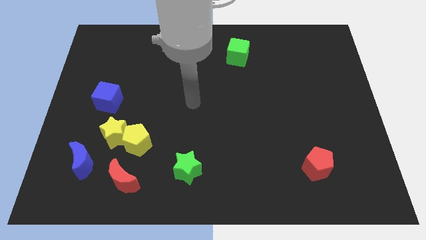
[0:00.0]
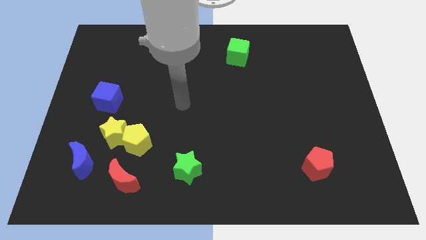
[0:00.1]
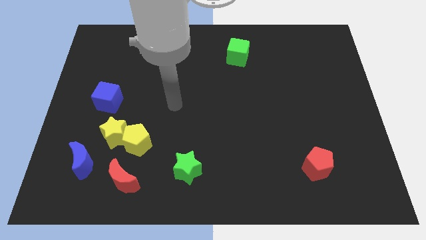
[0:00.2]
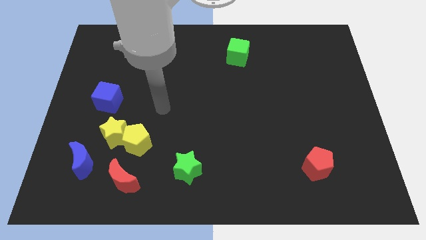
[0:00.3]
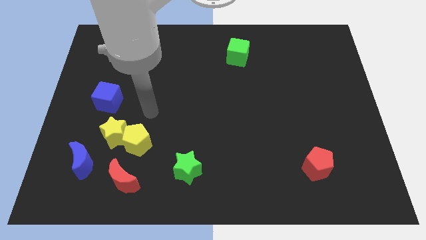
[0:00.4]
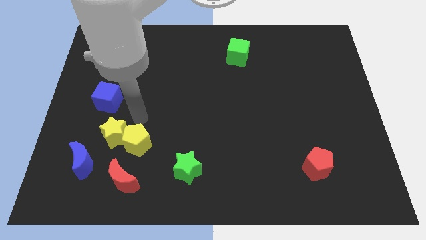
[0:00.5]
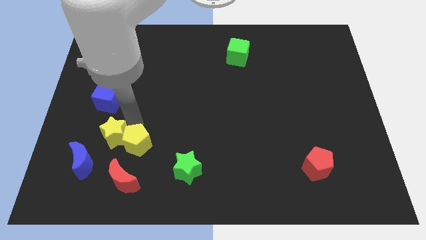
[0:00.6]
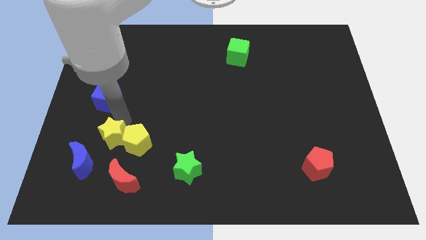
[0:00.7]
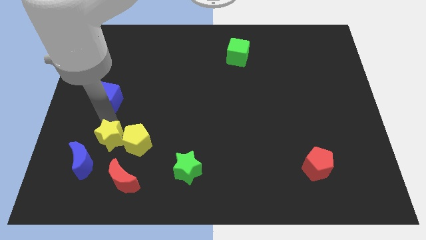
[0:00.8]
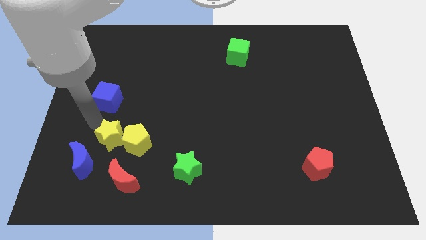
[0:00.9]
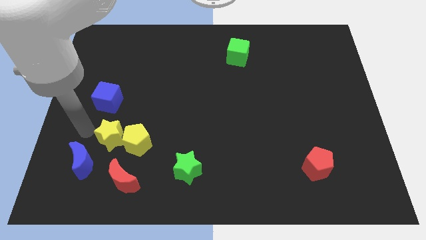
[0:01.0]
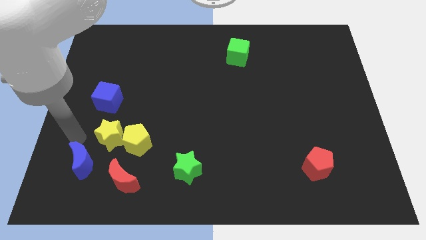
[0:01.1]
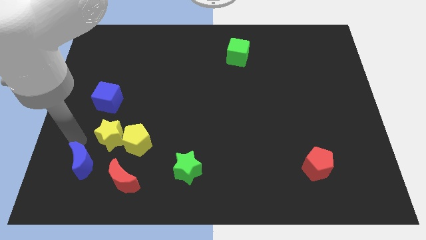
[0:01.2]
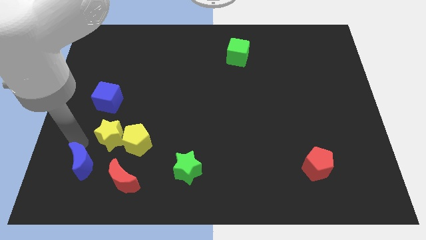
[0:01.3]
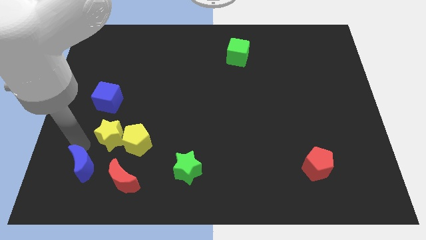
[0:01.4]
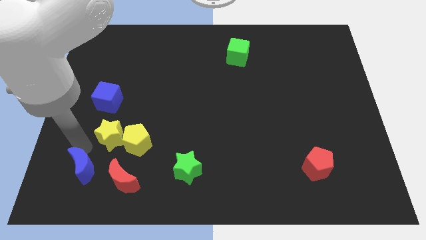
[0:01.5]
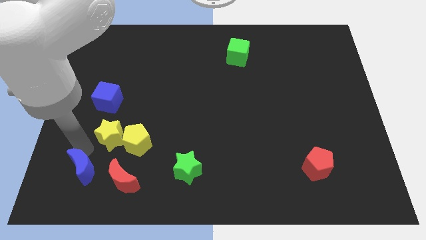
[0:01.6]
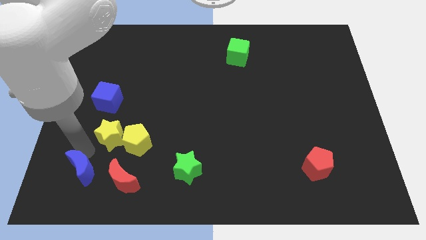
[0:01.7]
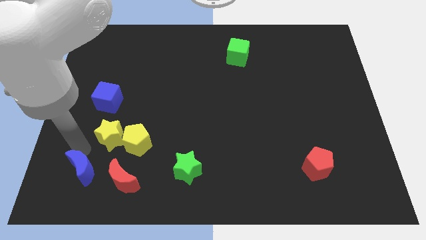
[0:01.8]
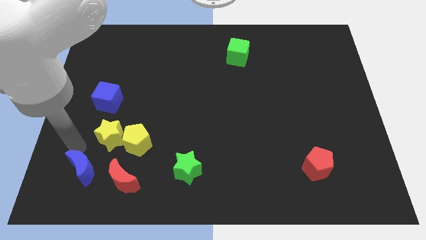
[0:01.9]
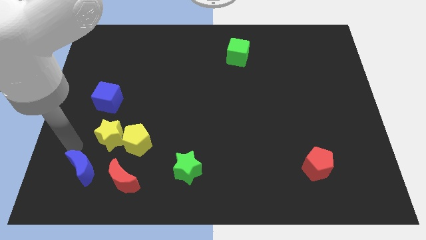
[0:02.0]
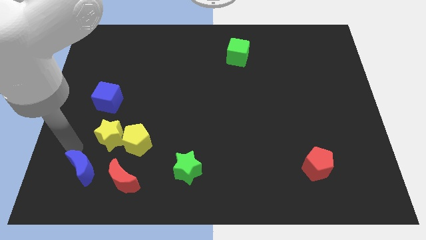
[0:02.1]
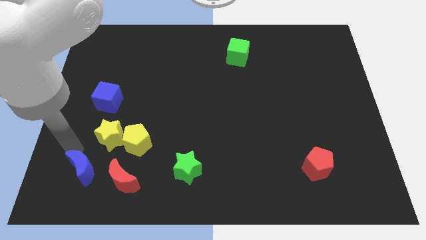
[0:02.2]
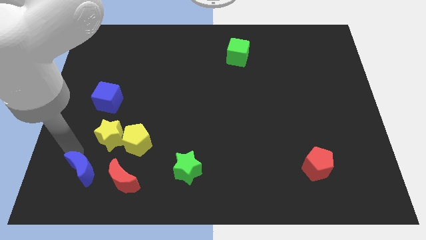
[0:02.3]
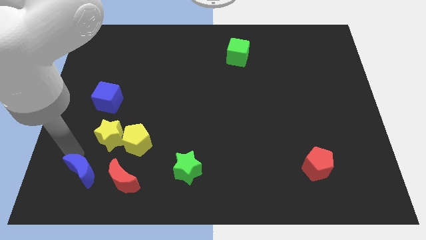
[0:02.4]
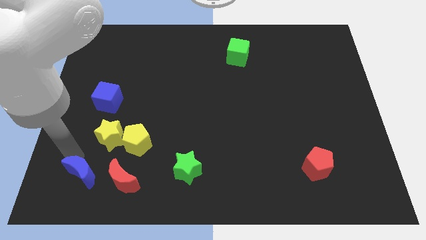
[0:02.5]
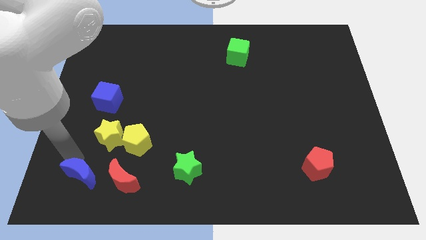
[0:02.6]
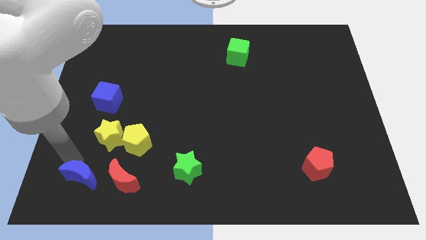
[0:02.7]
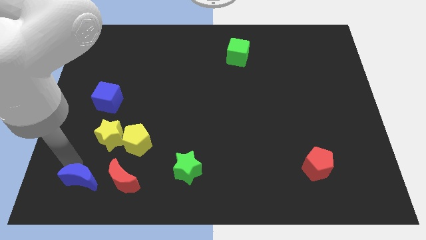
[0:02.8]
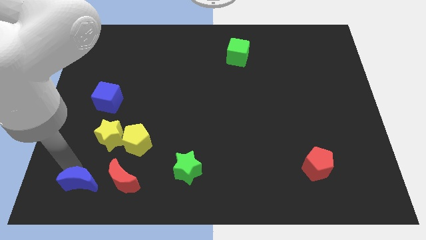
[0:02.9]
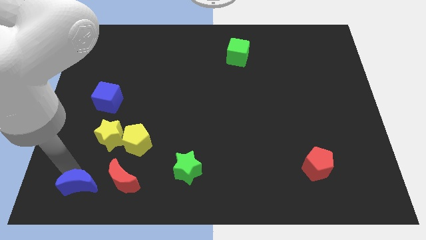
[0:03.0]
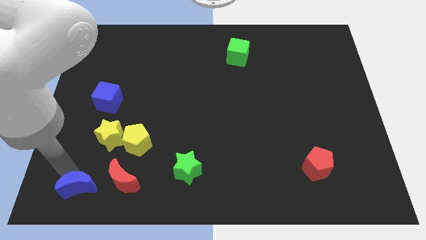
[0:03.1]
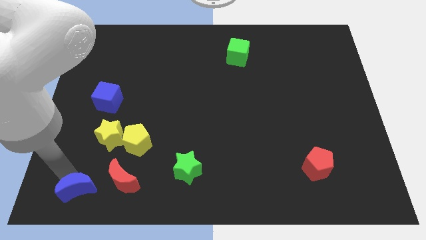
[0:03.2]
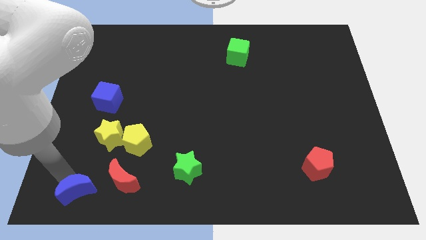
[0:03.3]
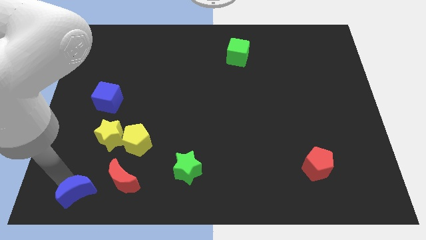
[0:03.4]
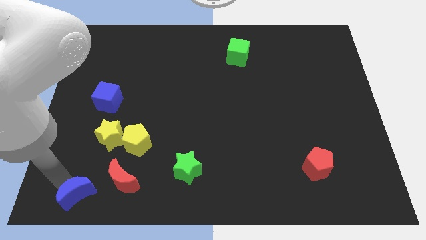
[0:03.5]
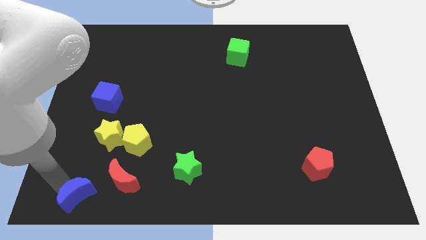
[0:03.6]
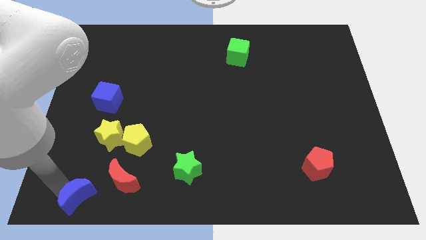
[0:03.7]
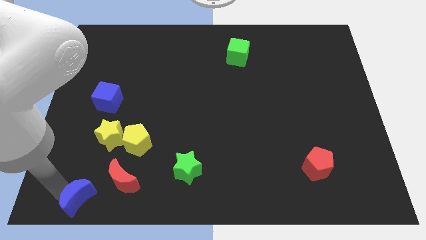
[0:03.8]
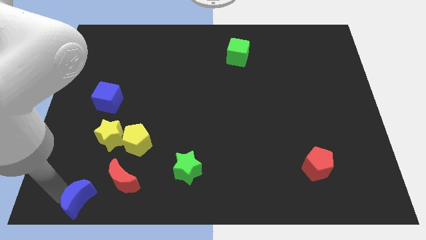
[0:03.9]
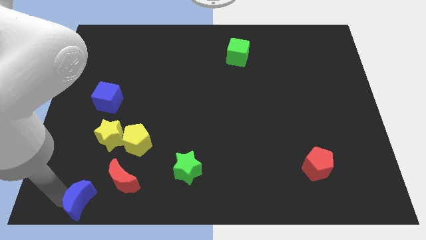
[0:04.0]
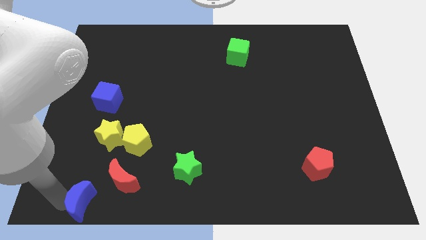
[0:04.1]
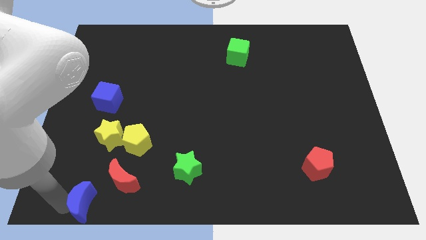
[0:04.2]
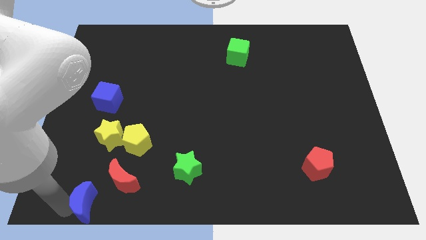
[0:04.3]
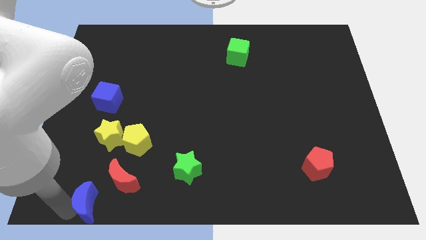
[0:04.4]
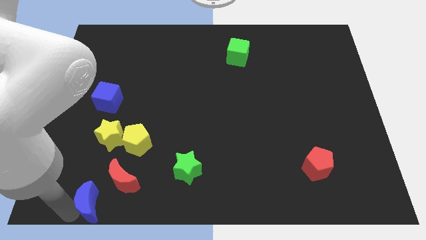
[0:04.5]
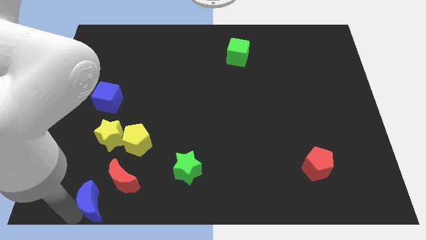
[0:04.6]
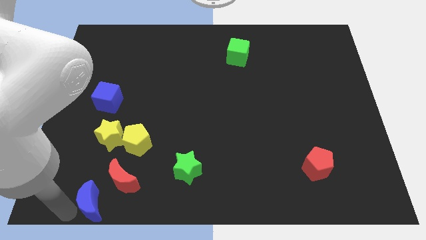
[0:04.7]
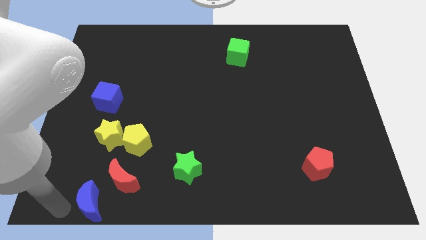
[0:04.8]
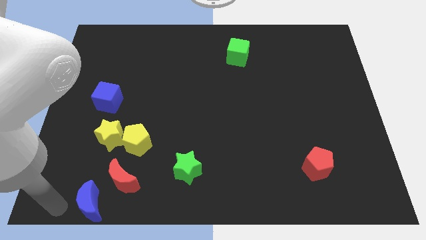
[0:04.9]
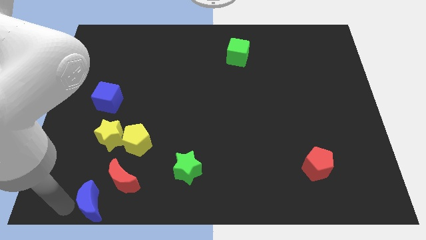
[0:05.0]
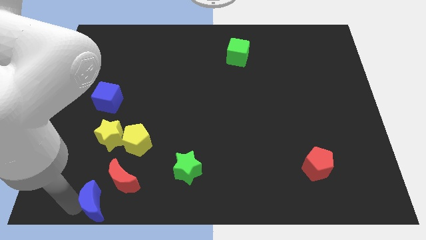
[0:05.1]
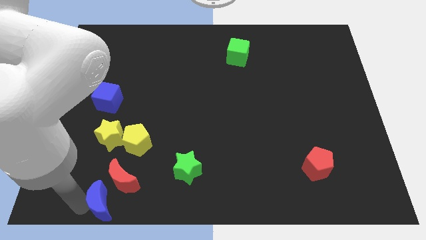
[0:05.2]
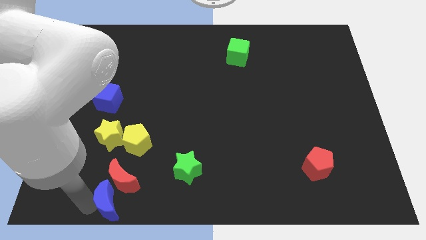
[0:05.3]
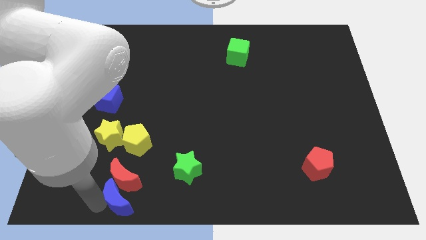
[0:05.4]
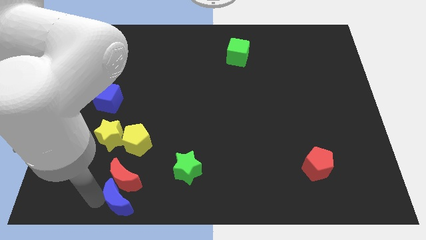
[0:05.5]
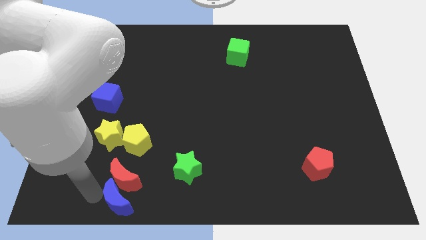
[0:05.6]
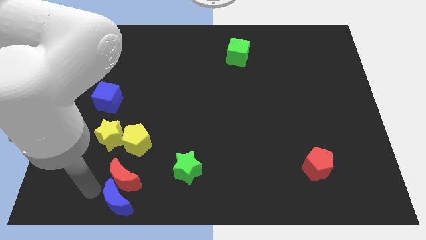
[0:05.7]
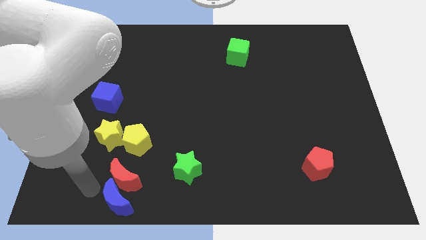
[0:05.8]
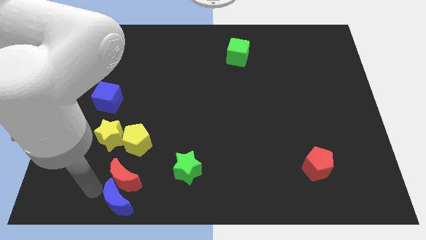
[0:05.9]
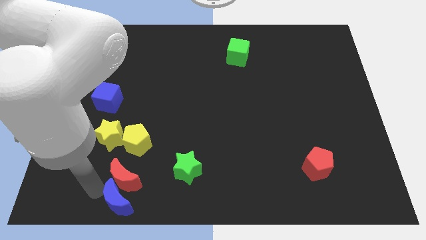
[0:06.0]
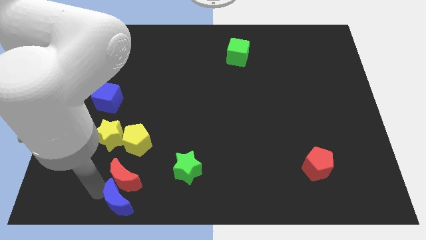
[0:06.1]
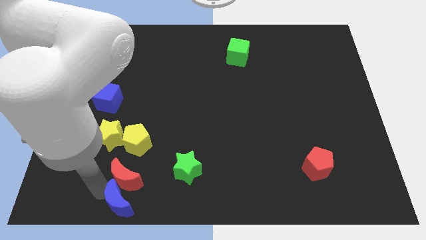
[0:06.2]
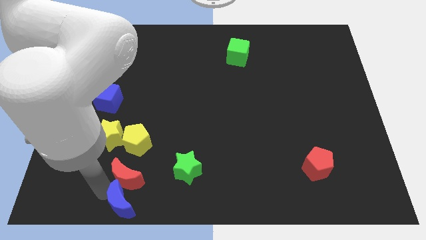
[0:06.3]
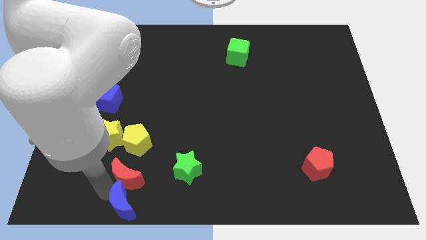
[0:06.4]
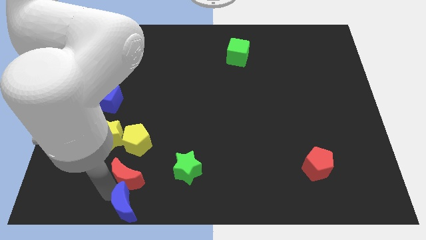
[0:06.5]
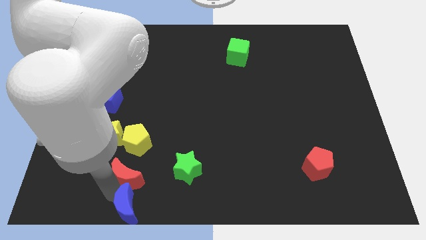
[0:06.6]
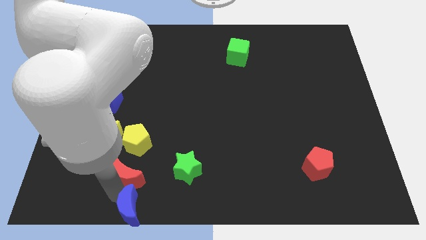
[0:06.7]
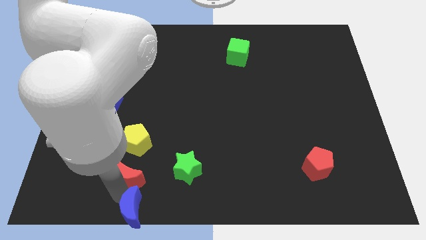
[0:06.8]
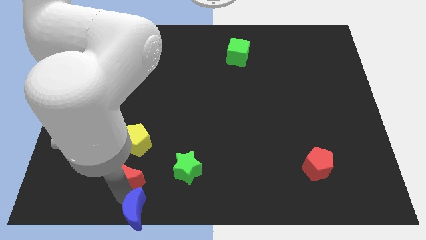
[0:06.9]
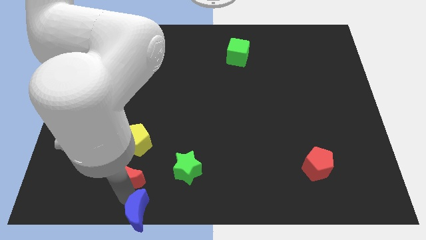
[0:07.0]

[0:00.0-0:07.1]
slide the blue moon to the bottom side
